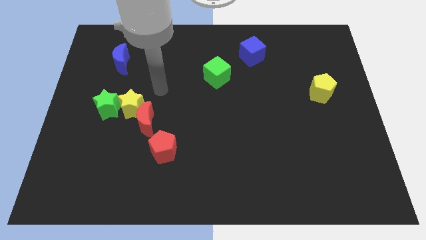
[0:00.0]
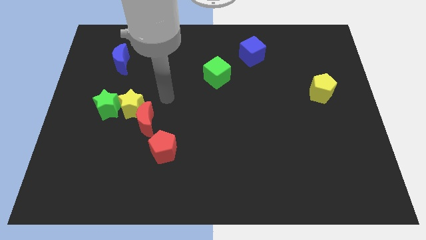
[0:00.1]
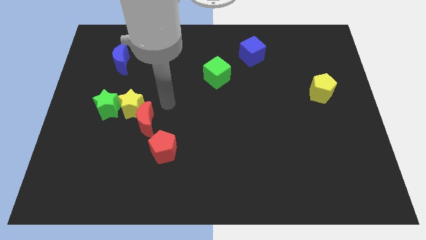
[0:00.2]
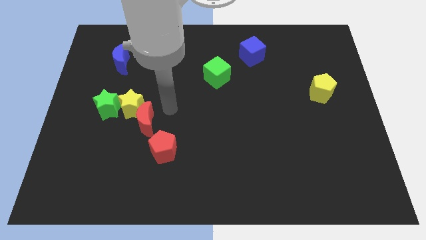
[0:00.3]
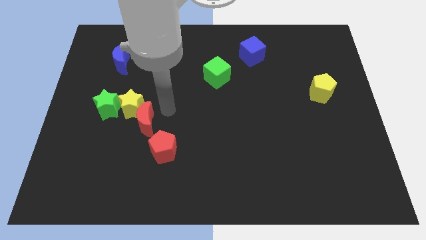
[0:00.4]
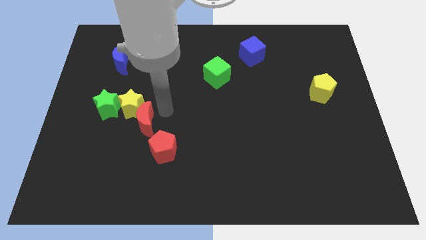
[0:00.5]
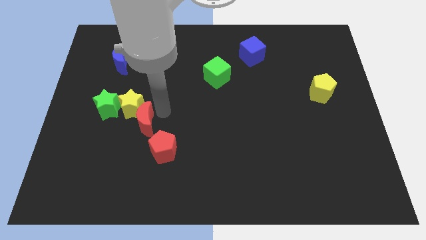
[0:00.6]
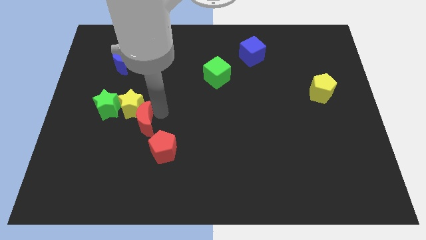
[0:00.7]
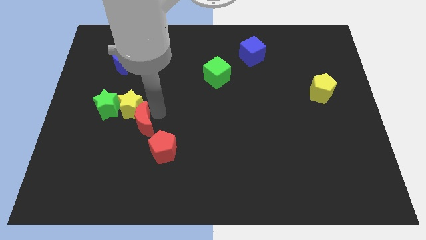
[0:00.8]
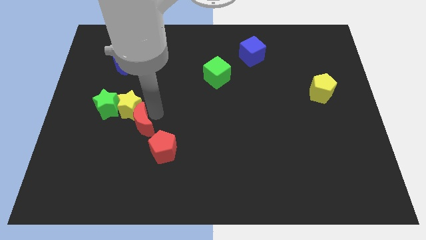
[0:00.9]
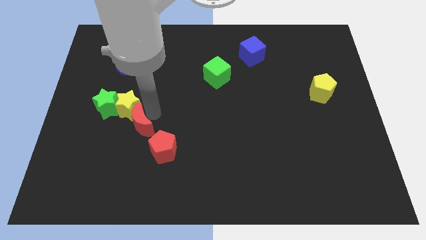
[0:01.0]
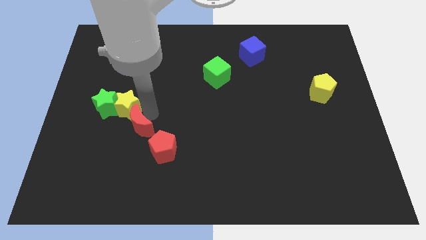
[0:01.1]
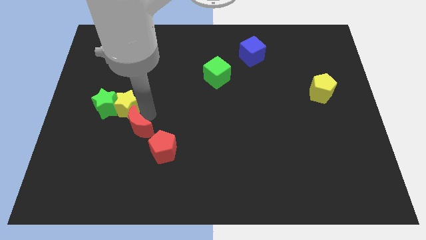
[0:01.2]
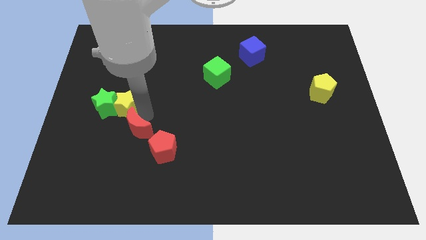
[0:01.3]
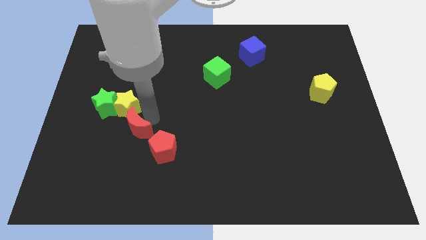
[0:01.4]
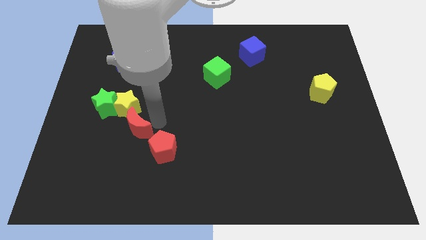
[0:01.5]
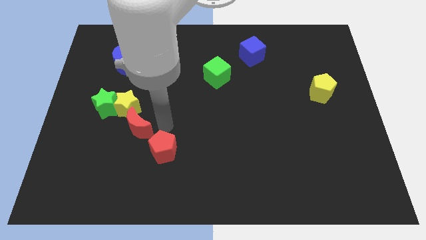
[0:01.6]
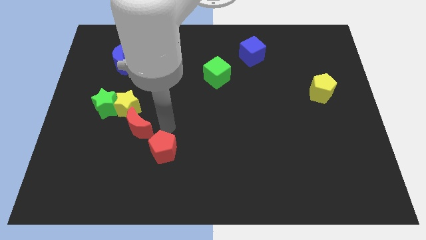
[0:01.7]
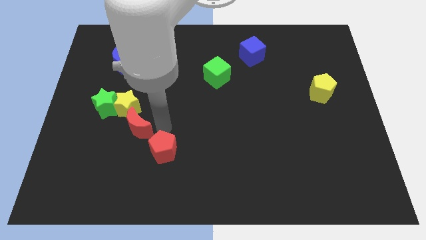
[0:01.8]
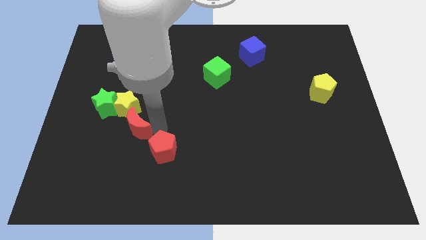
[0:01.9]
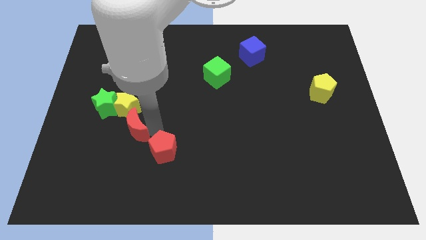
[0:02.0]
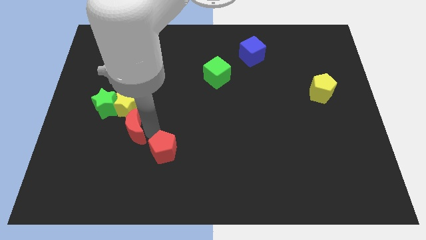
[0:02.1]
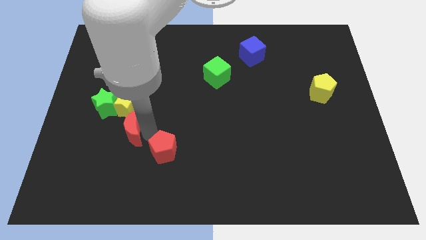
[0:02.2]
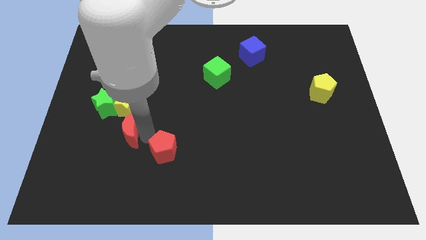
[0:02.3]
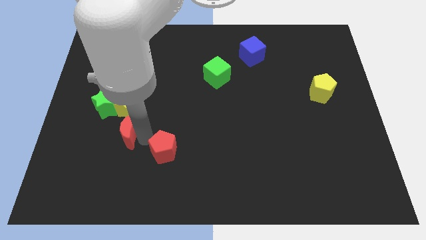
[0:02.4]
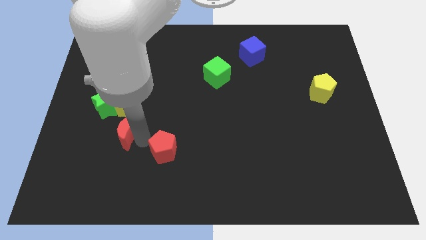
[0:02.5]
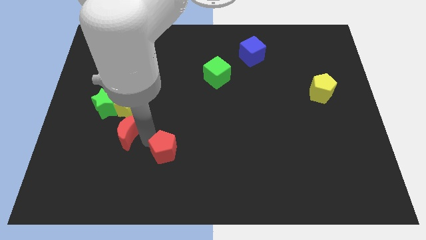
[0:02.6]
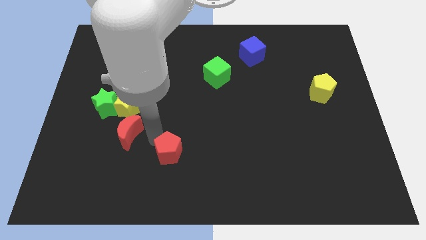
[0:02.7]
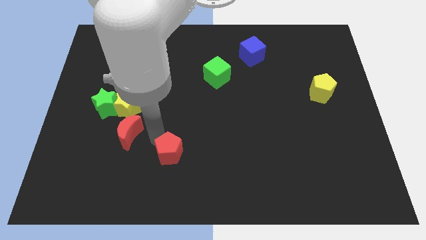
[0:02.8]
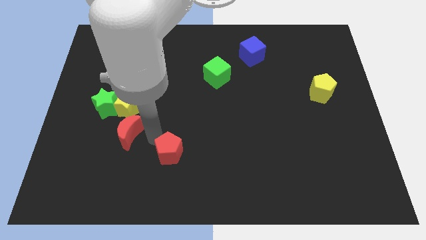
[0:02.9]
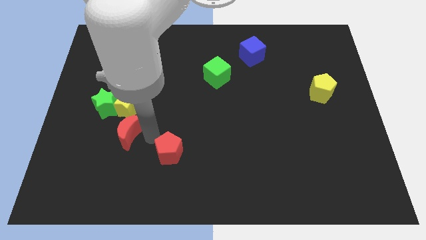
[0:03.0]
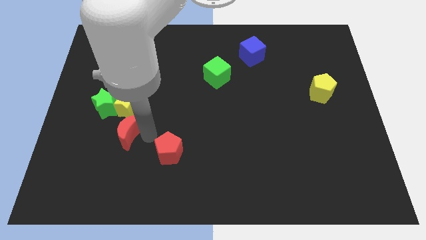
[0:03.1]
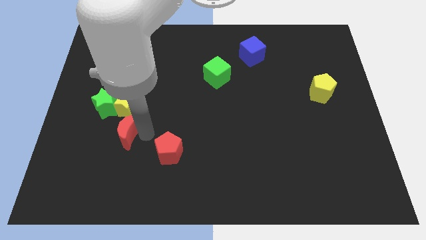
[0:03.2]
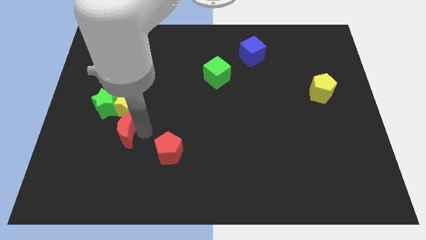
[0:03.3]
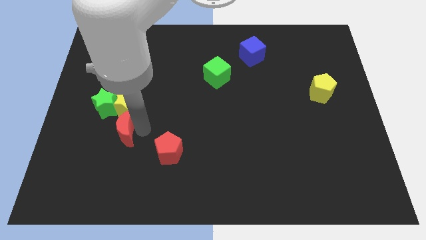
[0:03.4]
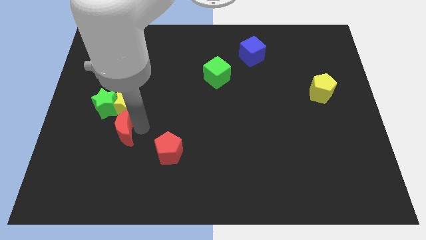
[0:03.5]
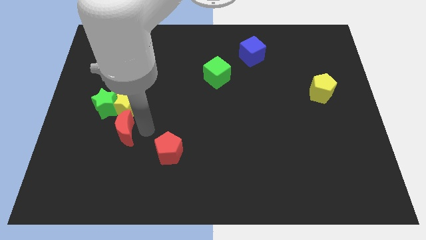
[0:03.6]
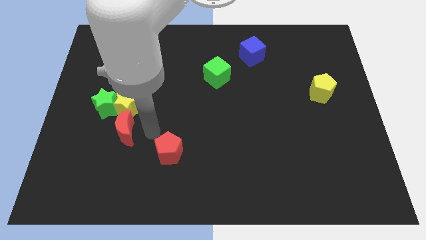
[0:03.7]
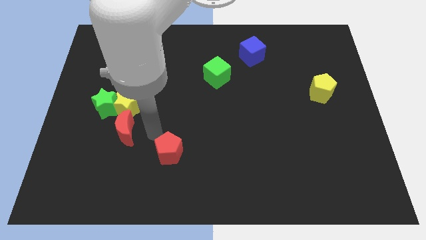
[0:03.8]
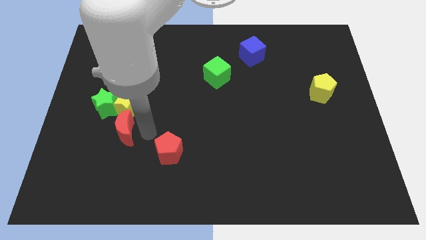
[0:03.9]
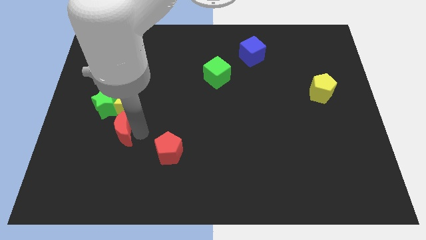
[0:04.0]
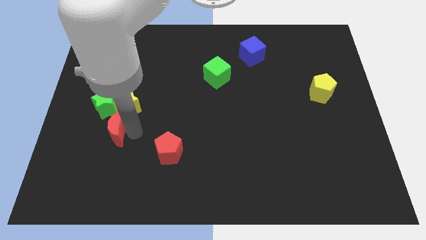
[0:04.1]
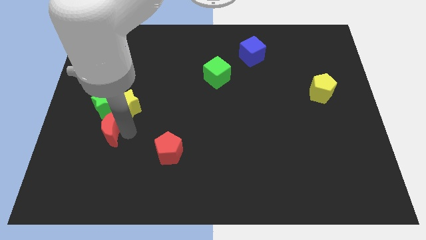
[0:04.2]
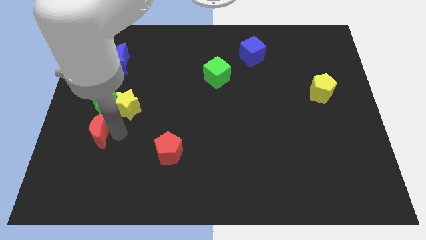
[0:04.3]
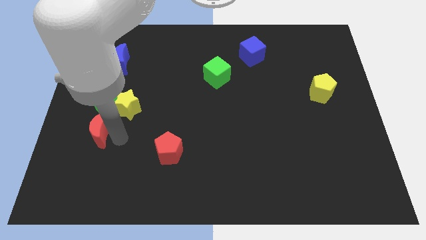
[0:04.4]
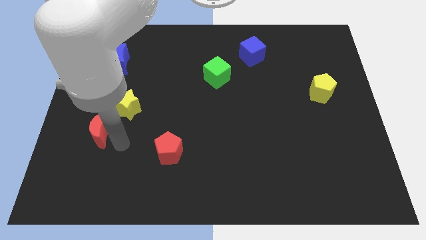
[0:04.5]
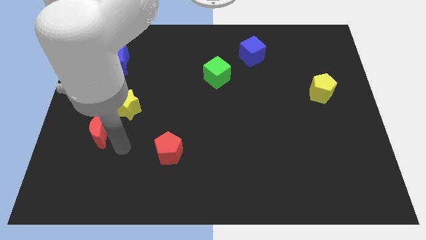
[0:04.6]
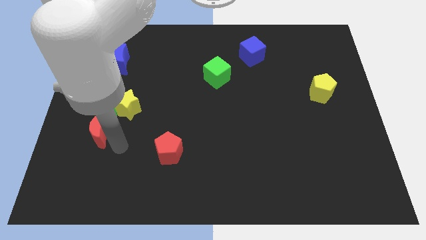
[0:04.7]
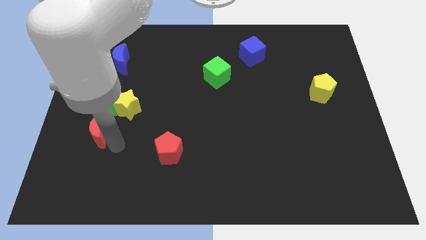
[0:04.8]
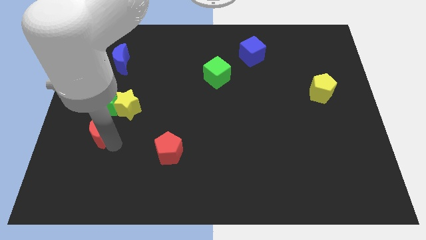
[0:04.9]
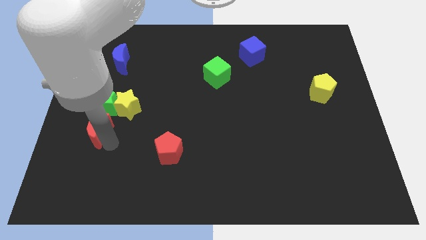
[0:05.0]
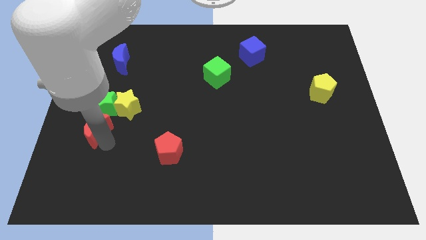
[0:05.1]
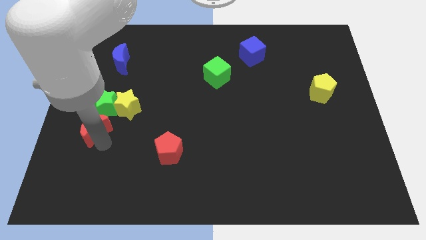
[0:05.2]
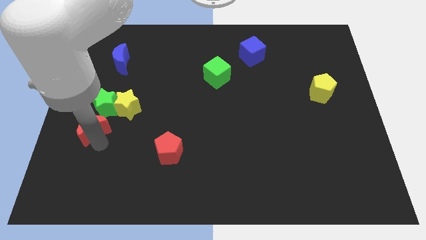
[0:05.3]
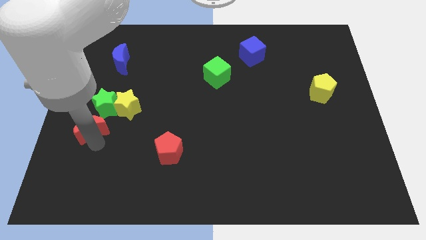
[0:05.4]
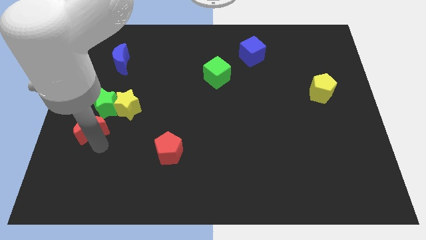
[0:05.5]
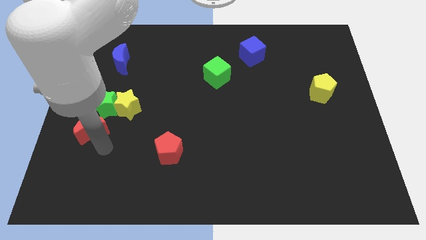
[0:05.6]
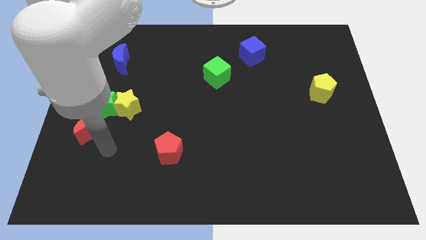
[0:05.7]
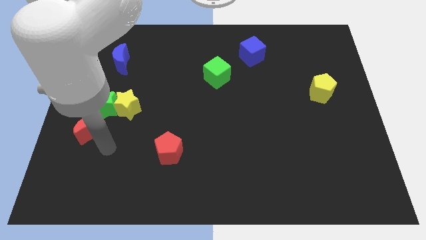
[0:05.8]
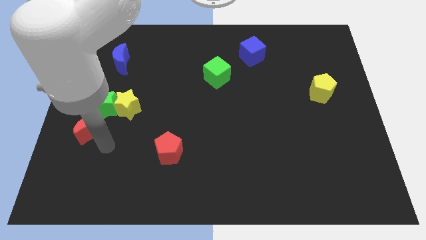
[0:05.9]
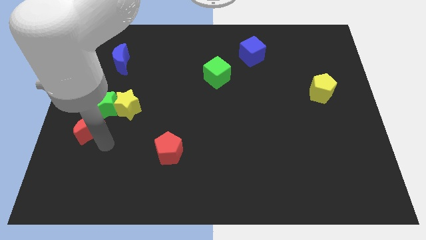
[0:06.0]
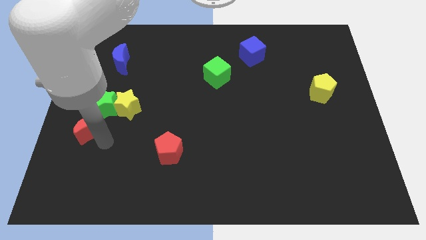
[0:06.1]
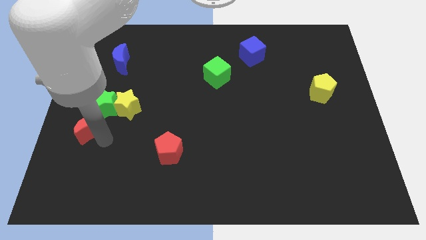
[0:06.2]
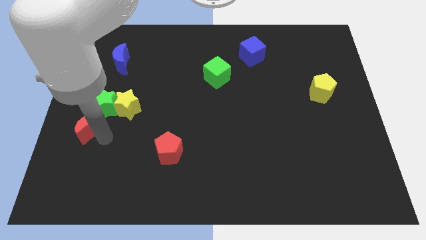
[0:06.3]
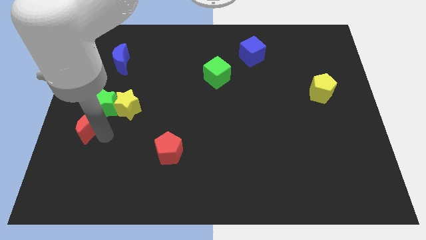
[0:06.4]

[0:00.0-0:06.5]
put the red moon to the left side
